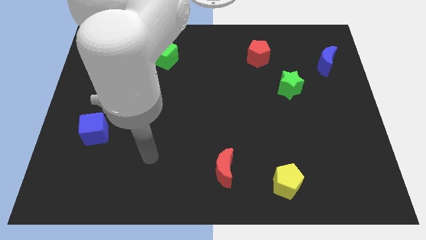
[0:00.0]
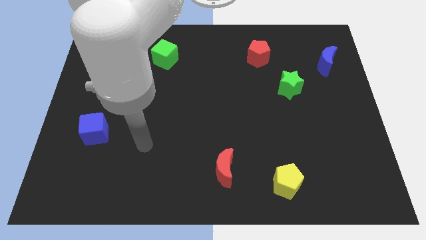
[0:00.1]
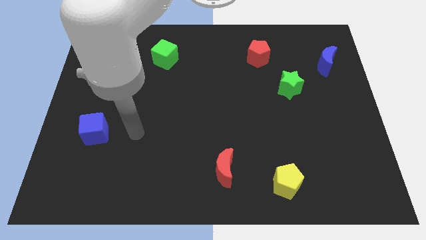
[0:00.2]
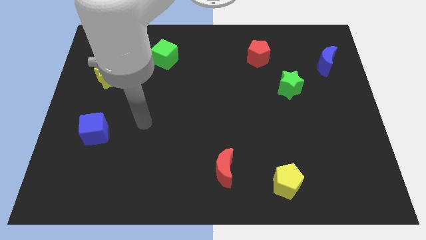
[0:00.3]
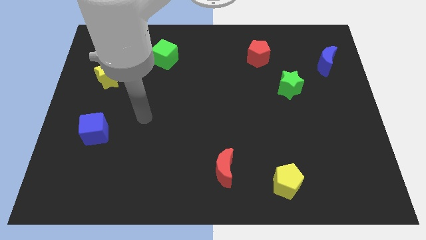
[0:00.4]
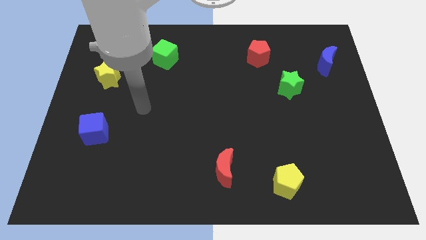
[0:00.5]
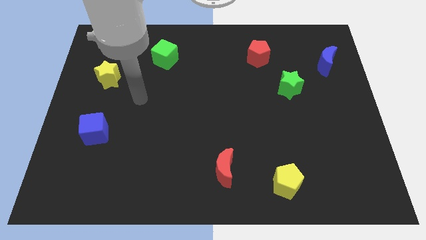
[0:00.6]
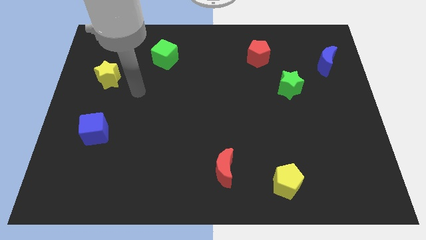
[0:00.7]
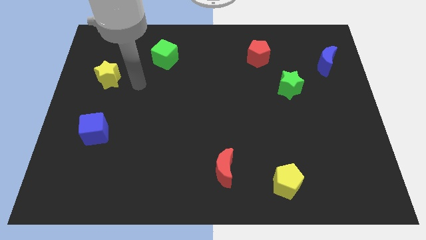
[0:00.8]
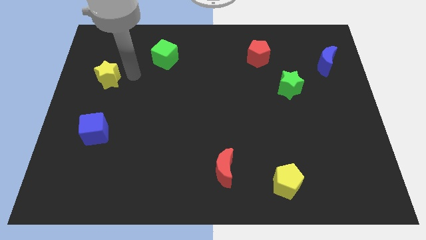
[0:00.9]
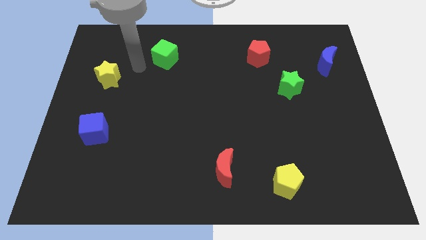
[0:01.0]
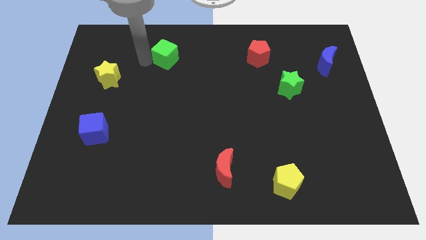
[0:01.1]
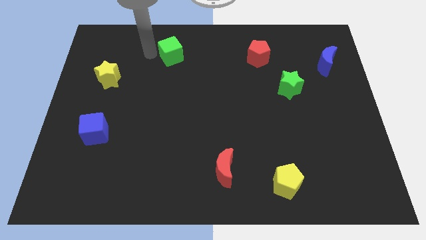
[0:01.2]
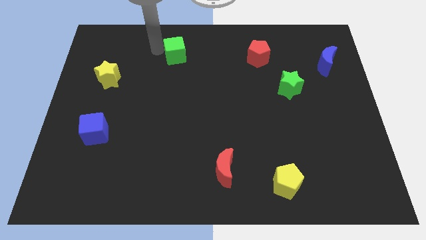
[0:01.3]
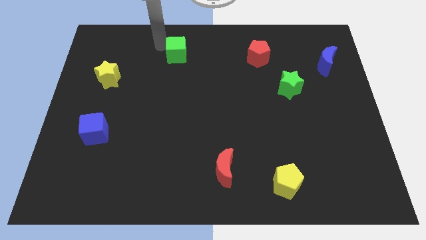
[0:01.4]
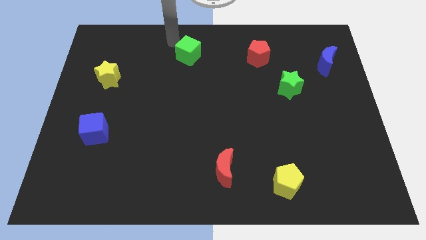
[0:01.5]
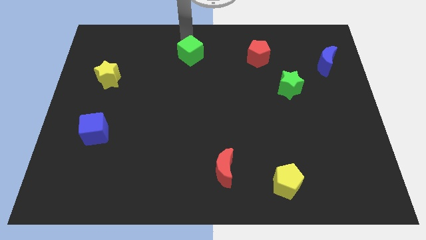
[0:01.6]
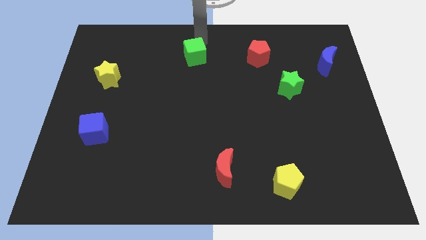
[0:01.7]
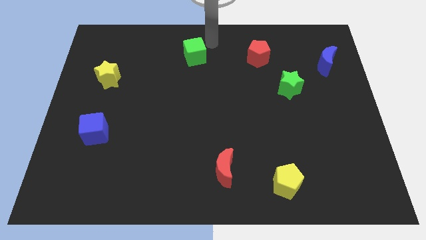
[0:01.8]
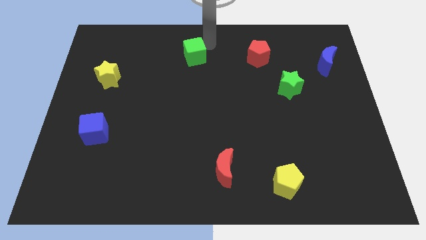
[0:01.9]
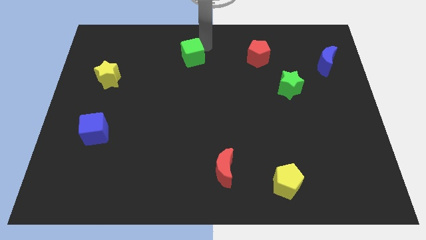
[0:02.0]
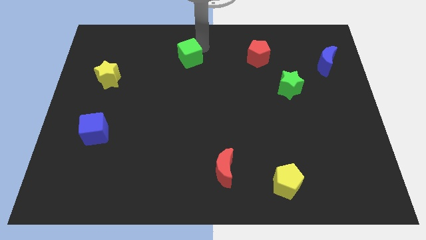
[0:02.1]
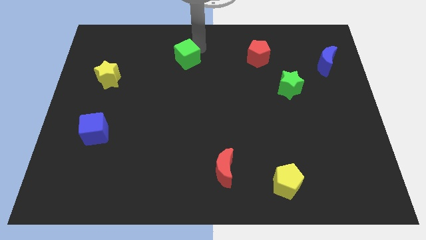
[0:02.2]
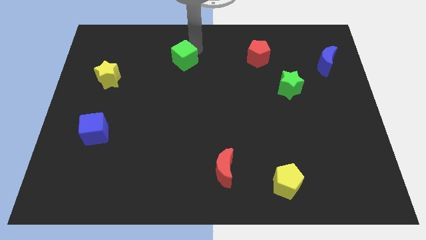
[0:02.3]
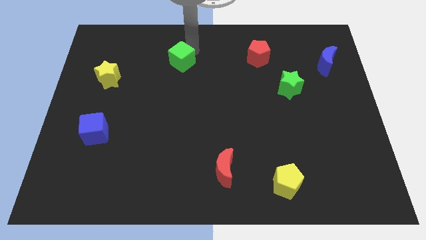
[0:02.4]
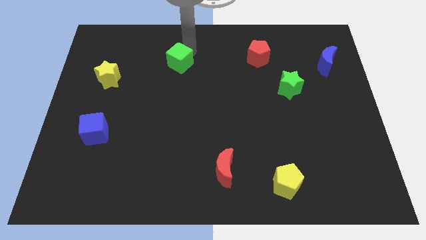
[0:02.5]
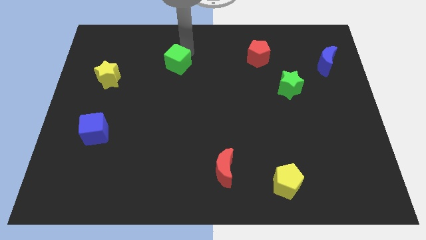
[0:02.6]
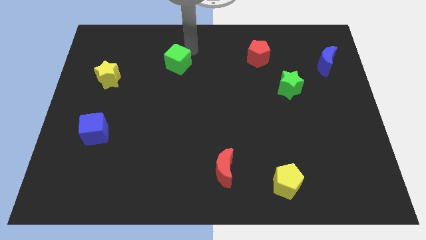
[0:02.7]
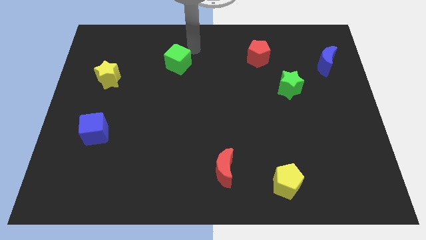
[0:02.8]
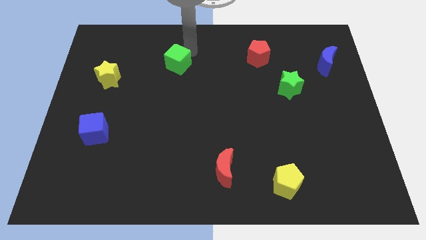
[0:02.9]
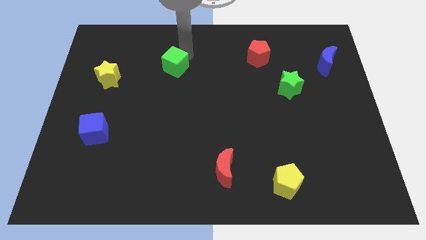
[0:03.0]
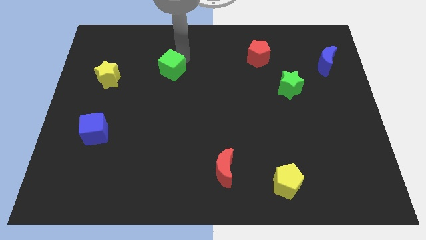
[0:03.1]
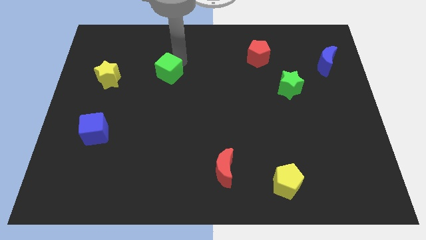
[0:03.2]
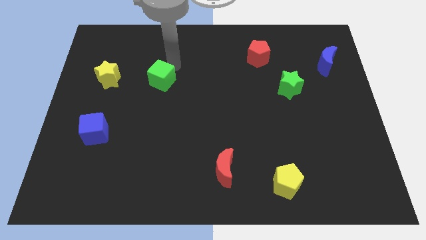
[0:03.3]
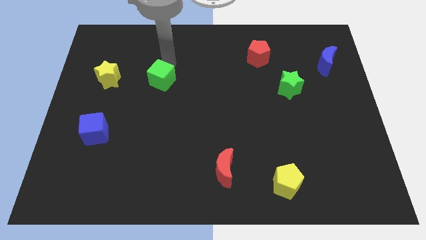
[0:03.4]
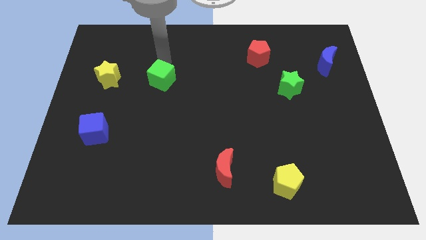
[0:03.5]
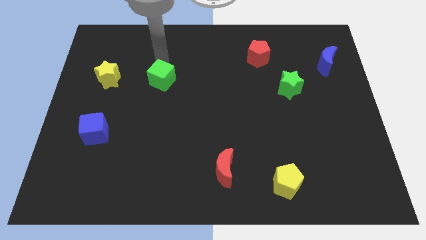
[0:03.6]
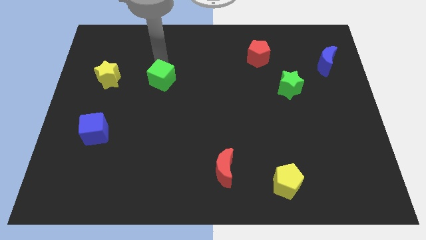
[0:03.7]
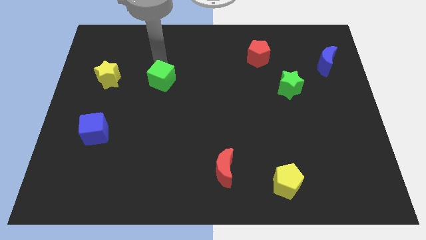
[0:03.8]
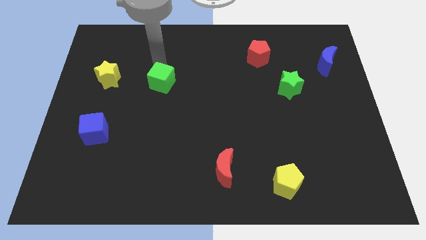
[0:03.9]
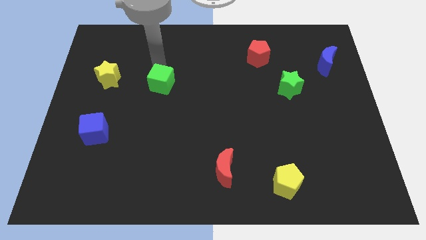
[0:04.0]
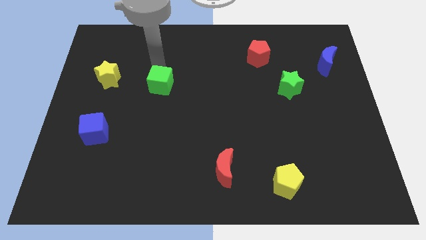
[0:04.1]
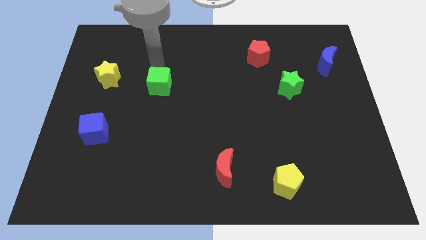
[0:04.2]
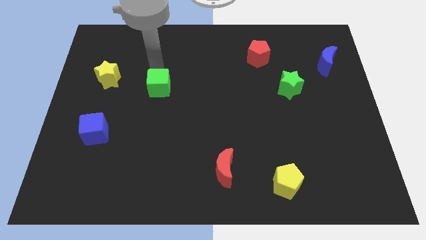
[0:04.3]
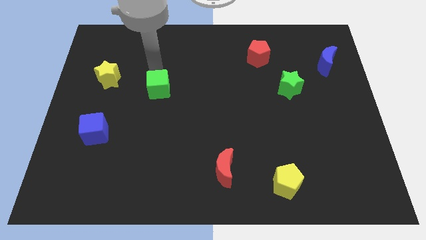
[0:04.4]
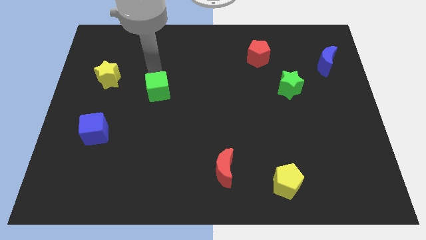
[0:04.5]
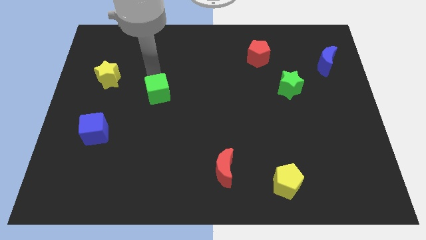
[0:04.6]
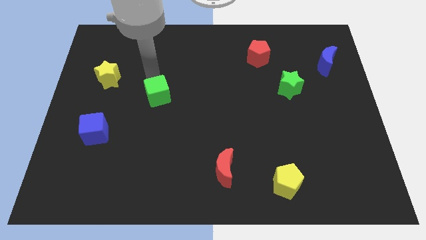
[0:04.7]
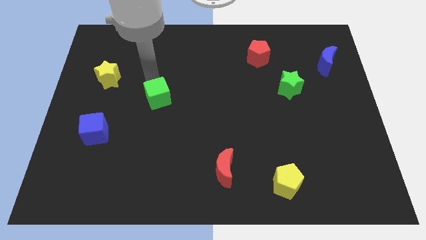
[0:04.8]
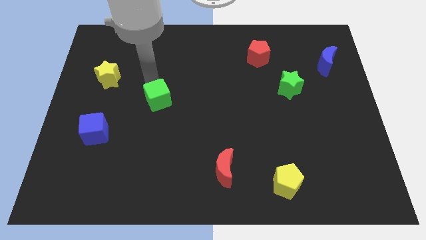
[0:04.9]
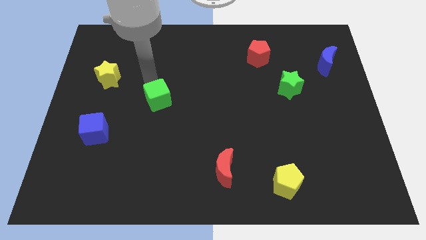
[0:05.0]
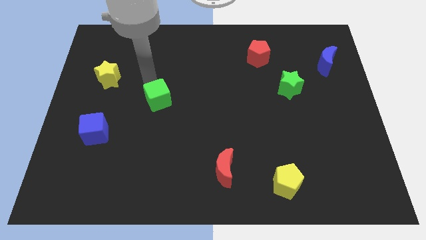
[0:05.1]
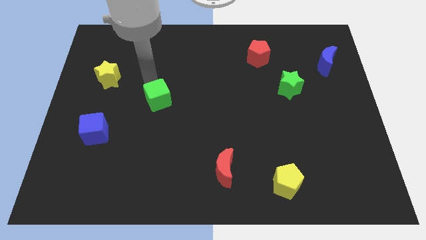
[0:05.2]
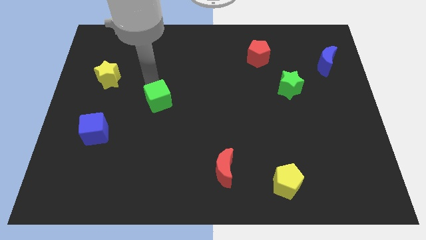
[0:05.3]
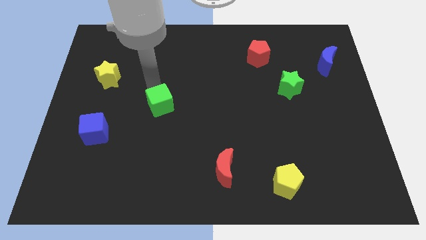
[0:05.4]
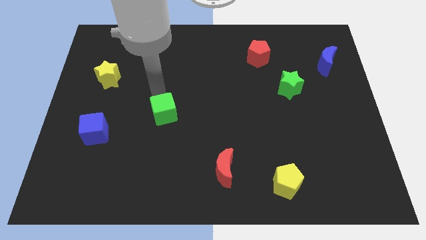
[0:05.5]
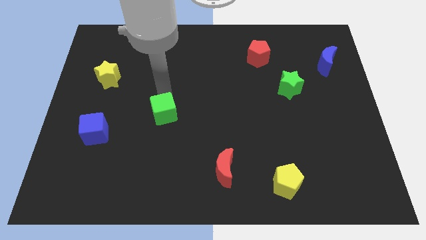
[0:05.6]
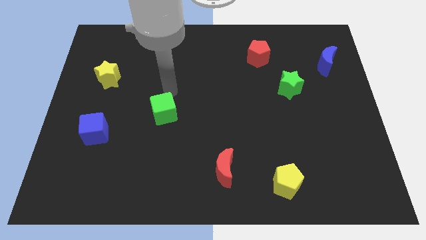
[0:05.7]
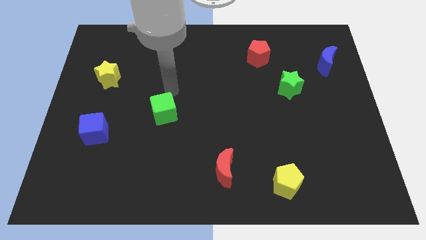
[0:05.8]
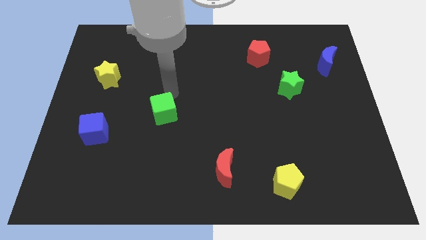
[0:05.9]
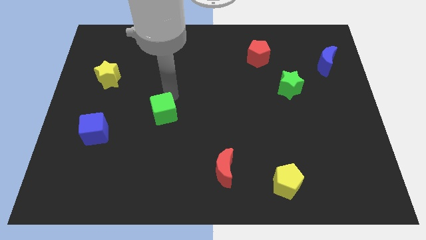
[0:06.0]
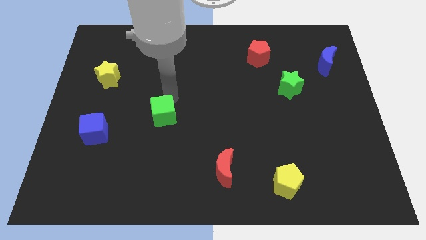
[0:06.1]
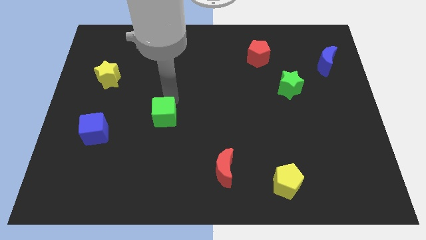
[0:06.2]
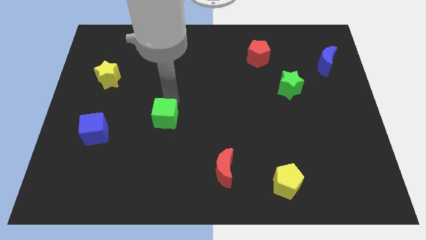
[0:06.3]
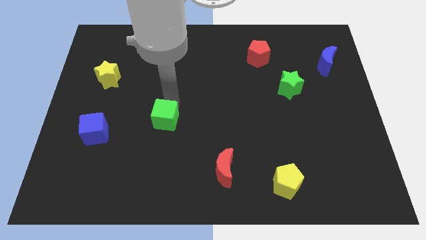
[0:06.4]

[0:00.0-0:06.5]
slide the green cube down

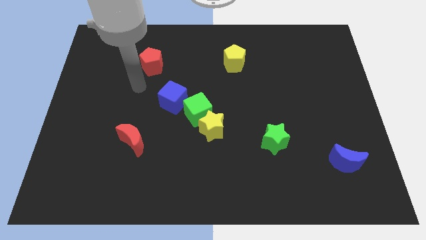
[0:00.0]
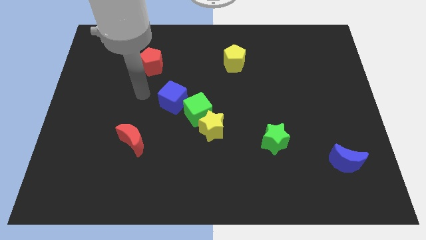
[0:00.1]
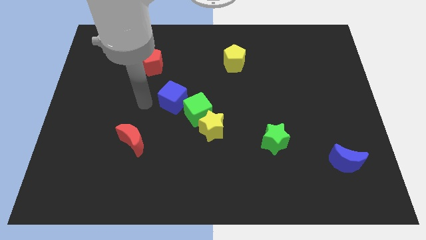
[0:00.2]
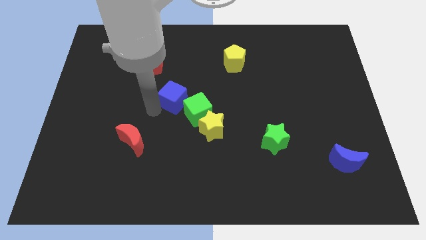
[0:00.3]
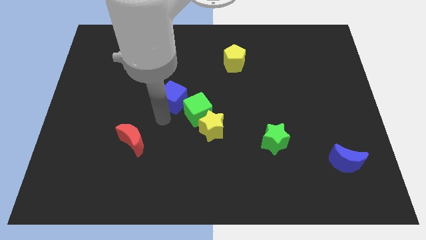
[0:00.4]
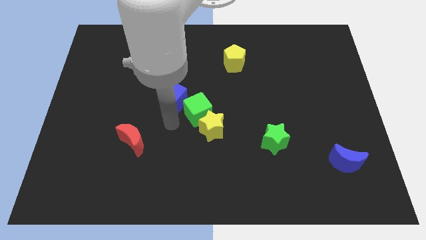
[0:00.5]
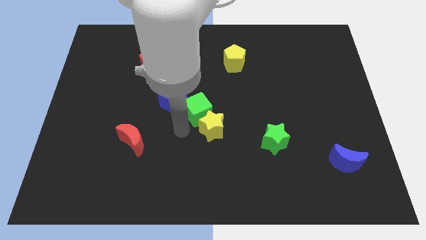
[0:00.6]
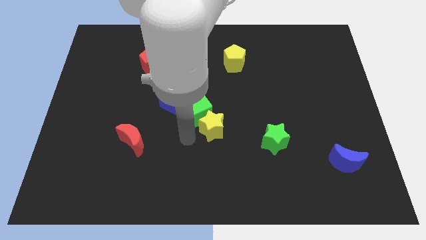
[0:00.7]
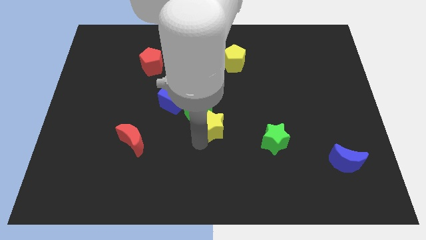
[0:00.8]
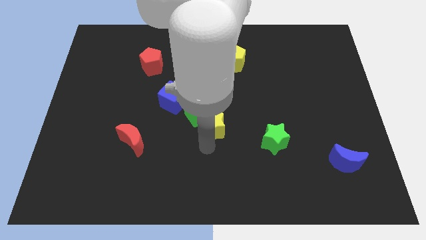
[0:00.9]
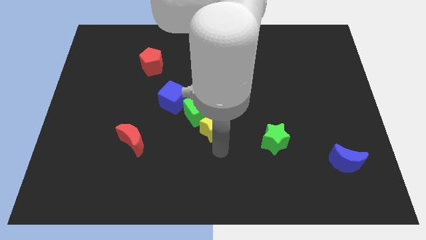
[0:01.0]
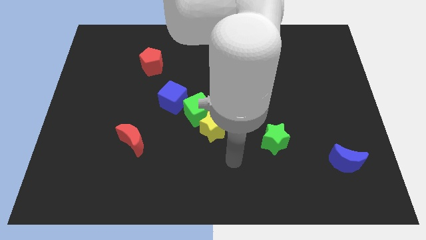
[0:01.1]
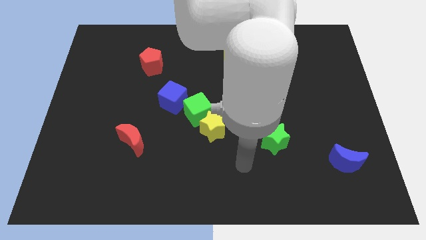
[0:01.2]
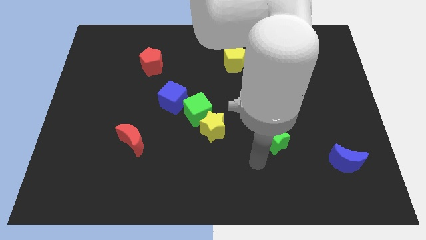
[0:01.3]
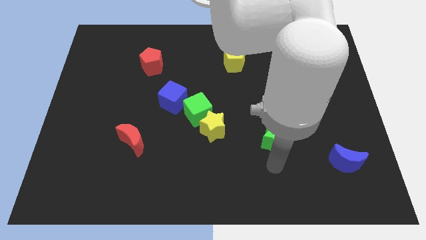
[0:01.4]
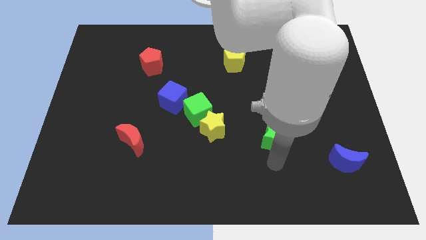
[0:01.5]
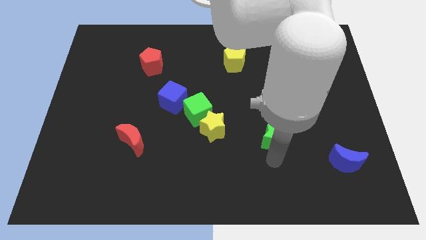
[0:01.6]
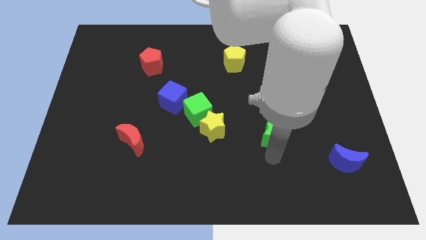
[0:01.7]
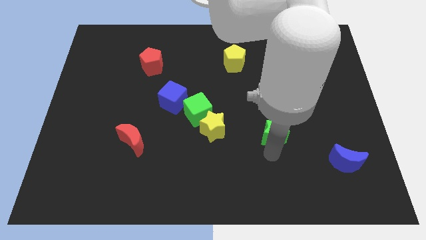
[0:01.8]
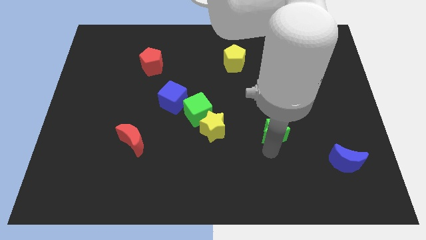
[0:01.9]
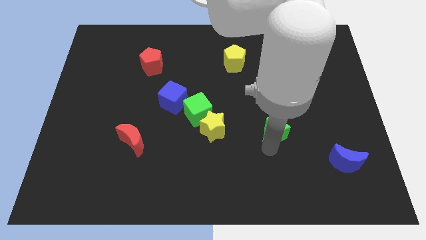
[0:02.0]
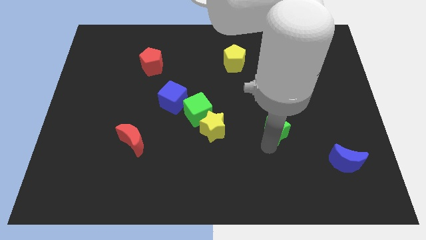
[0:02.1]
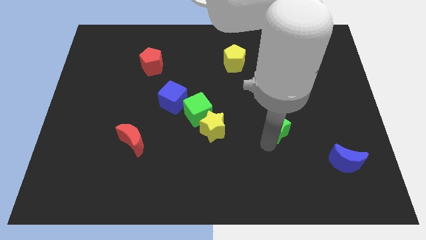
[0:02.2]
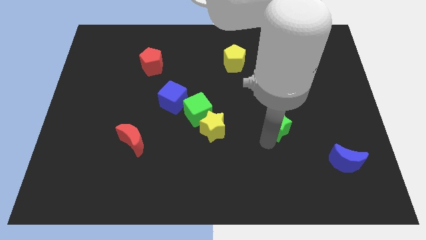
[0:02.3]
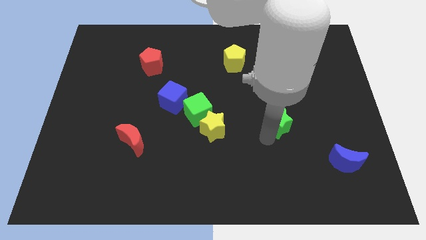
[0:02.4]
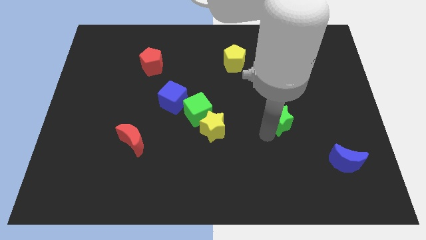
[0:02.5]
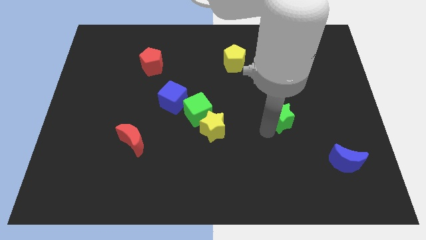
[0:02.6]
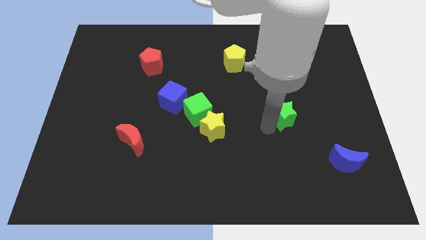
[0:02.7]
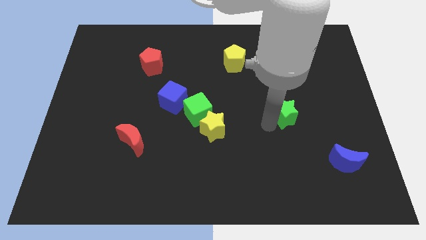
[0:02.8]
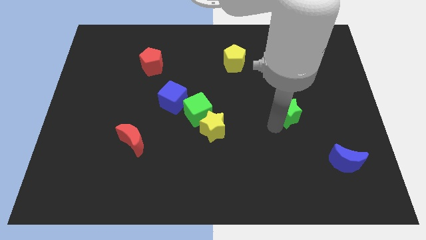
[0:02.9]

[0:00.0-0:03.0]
slide the green star slightly upwards
